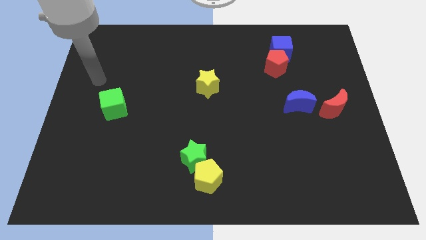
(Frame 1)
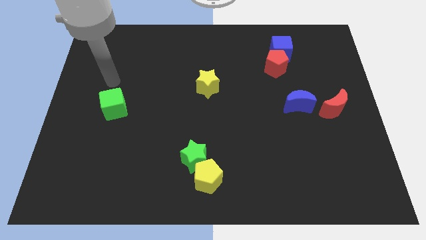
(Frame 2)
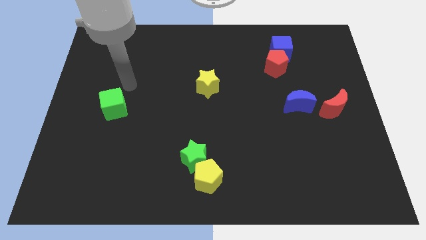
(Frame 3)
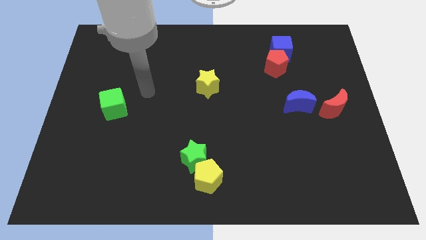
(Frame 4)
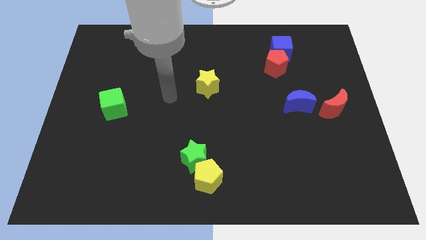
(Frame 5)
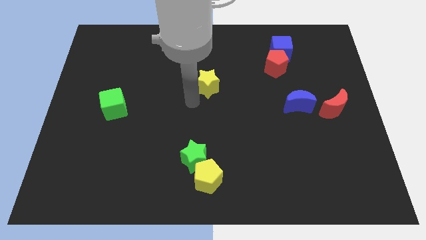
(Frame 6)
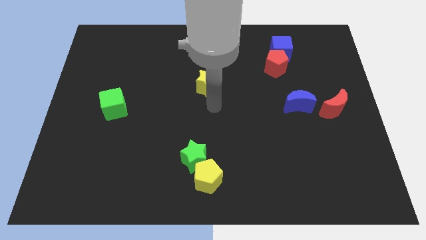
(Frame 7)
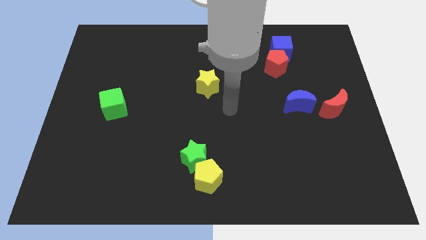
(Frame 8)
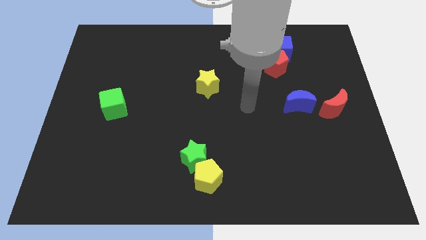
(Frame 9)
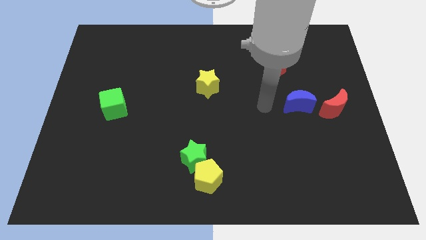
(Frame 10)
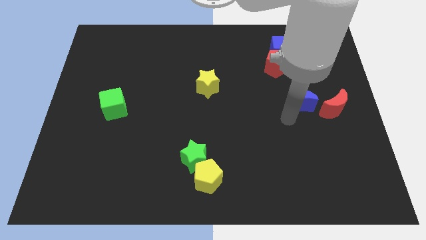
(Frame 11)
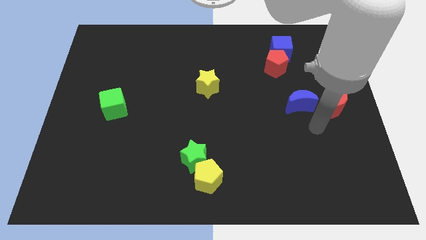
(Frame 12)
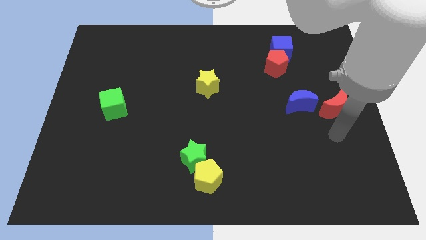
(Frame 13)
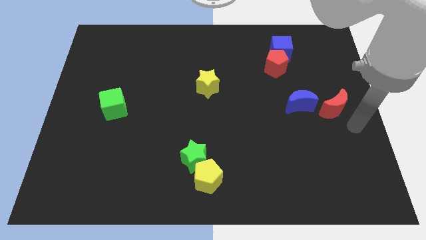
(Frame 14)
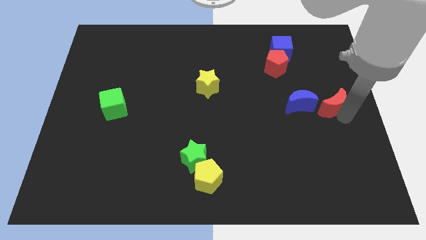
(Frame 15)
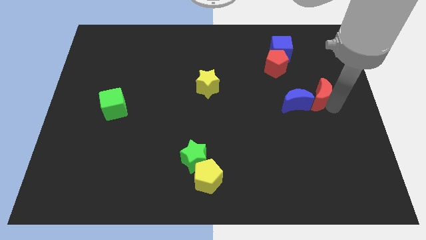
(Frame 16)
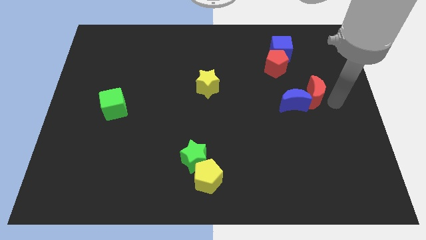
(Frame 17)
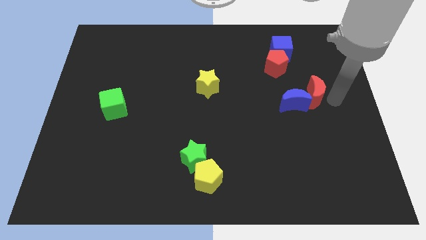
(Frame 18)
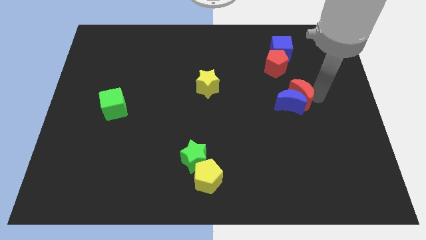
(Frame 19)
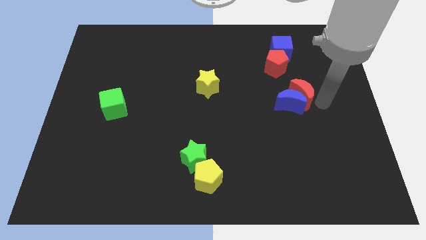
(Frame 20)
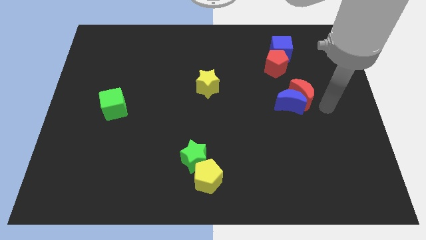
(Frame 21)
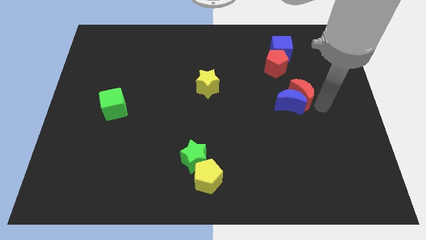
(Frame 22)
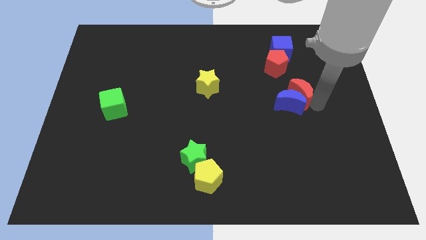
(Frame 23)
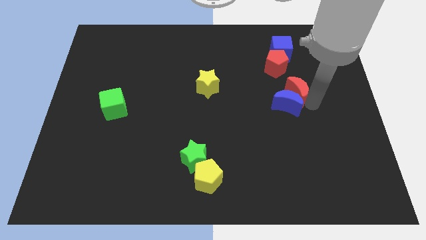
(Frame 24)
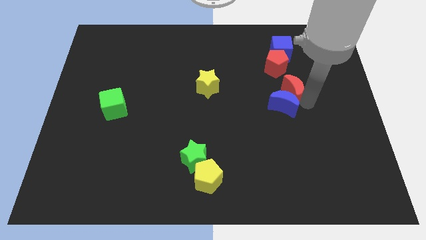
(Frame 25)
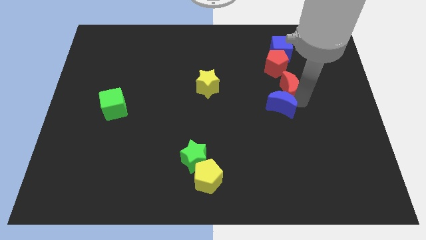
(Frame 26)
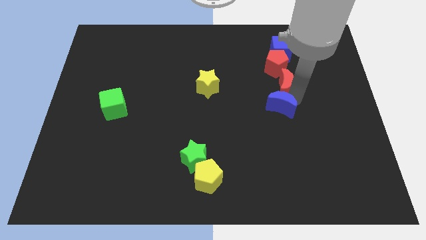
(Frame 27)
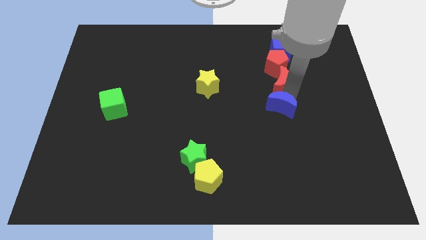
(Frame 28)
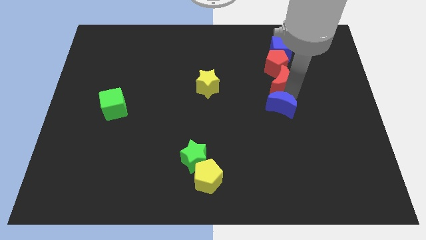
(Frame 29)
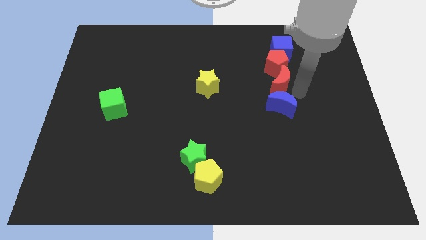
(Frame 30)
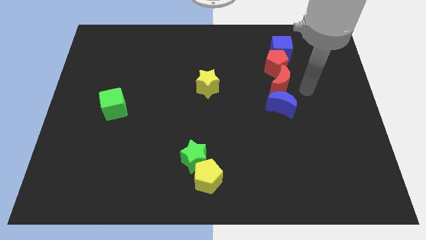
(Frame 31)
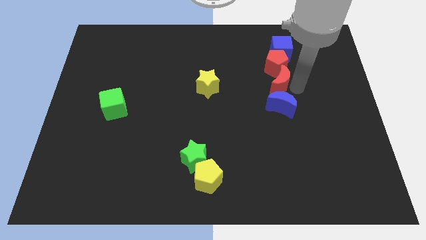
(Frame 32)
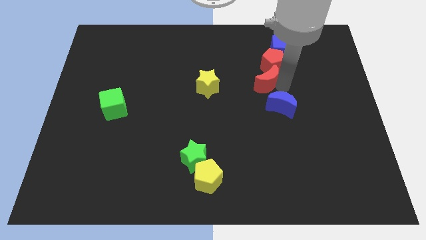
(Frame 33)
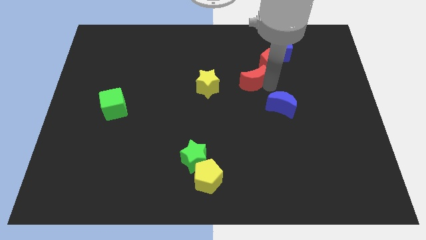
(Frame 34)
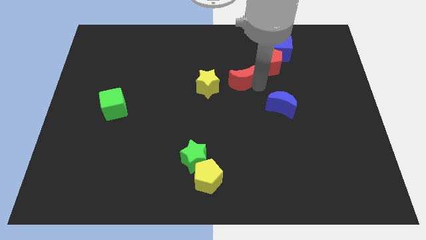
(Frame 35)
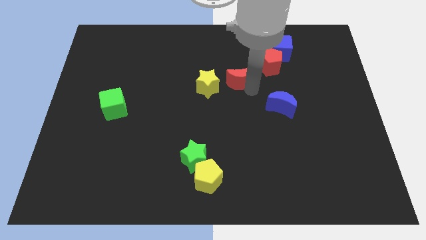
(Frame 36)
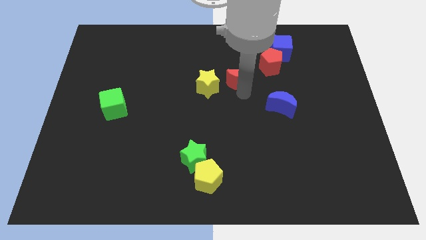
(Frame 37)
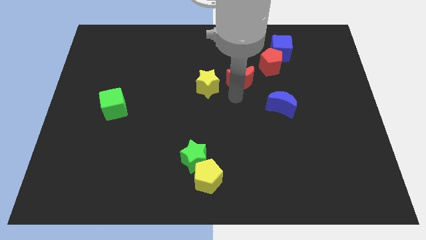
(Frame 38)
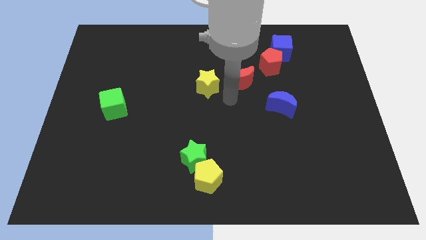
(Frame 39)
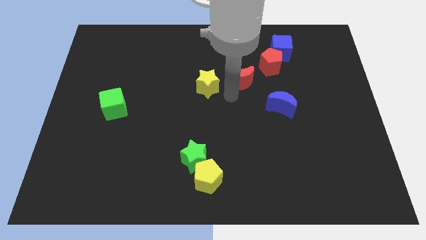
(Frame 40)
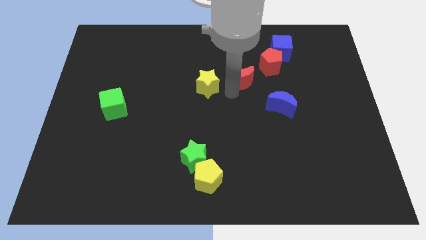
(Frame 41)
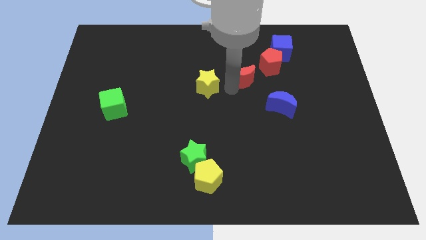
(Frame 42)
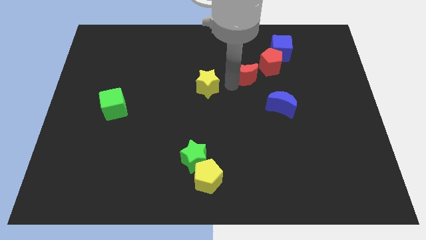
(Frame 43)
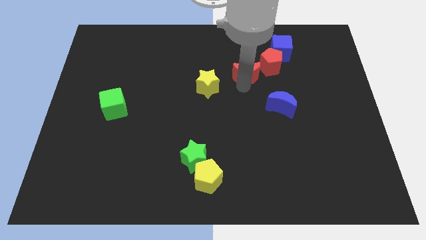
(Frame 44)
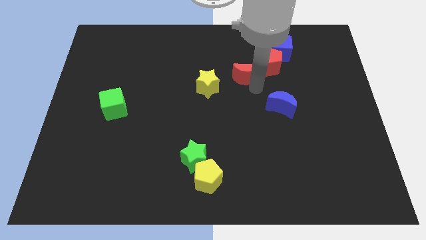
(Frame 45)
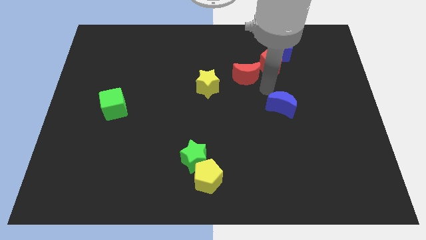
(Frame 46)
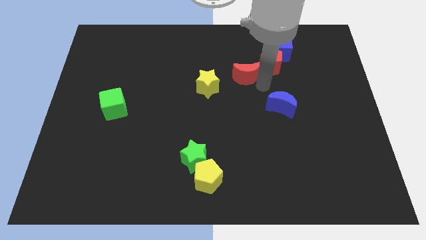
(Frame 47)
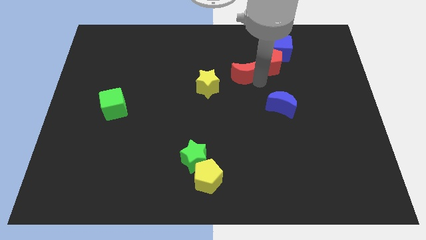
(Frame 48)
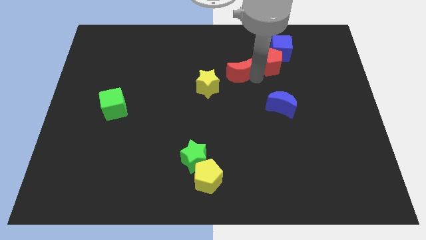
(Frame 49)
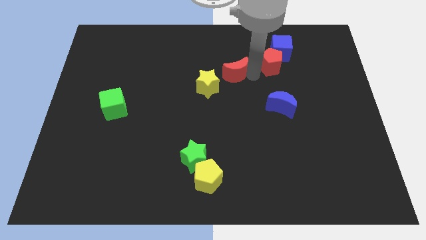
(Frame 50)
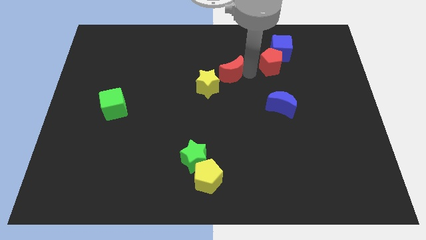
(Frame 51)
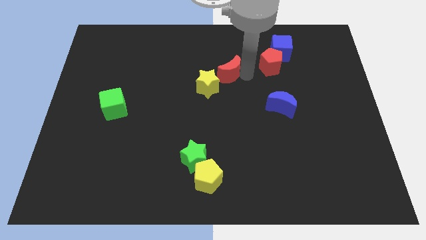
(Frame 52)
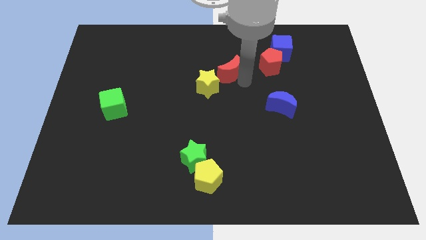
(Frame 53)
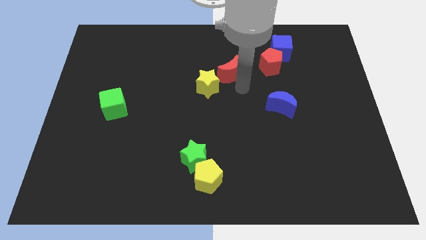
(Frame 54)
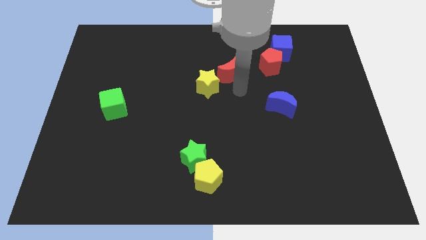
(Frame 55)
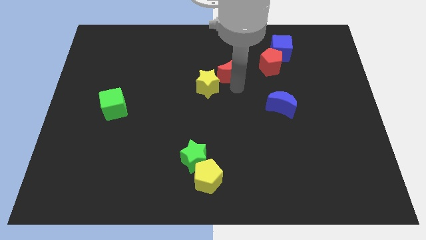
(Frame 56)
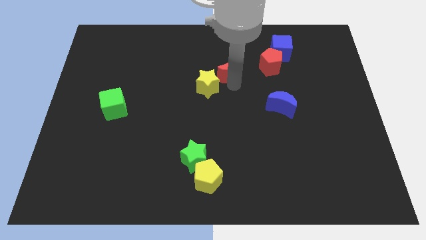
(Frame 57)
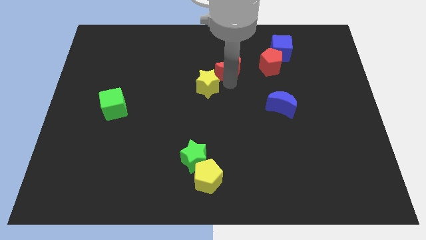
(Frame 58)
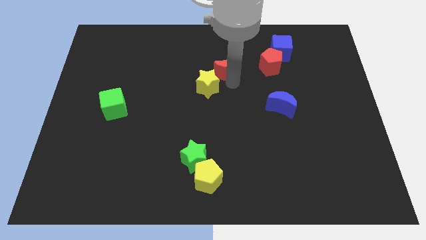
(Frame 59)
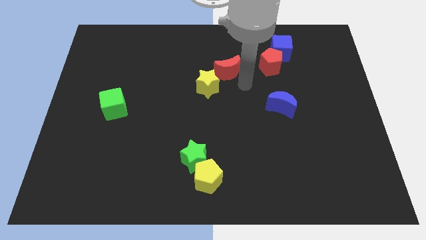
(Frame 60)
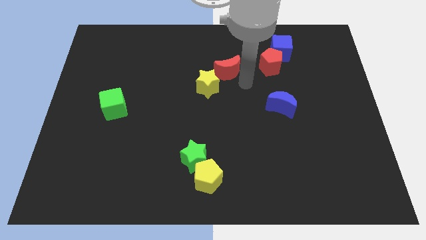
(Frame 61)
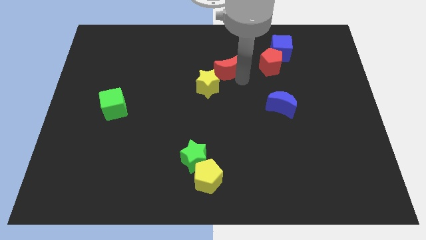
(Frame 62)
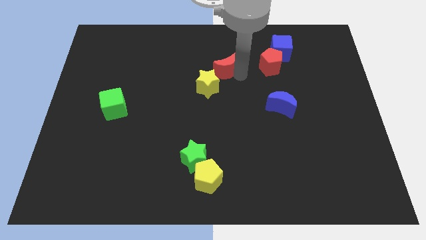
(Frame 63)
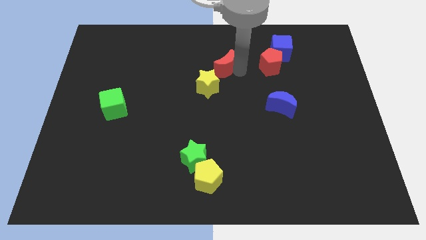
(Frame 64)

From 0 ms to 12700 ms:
slide the red moon above the yellow star

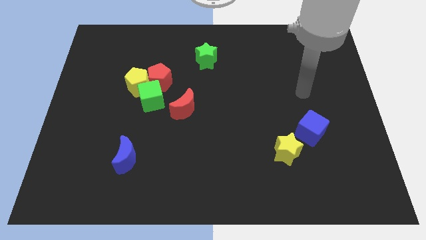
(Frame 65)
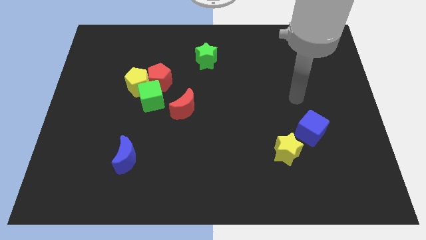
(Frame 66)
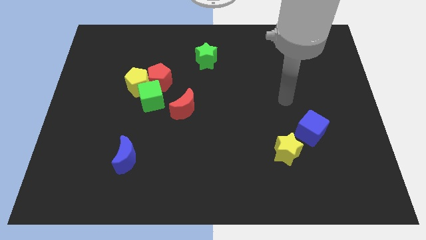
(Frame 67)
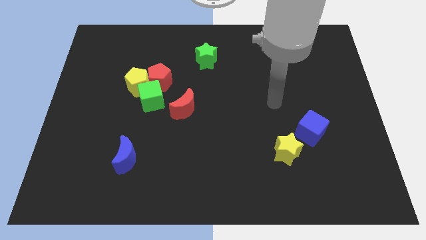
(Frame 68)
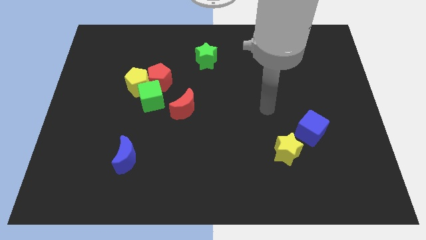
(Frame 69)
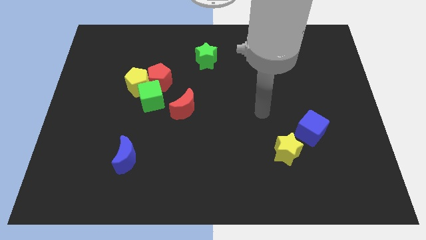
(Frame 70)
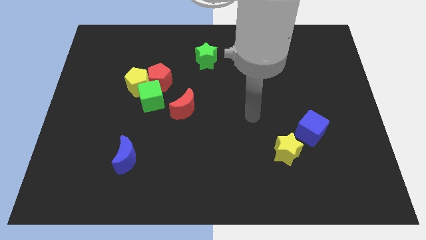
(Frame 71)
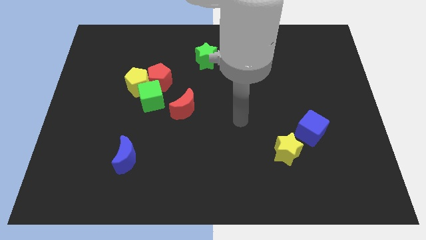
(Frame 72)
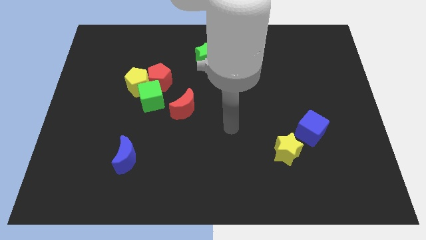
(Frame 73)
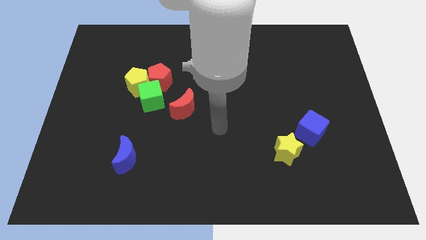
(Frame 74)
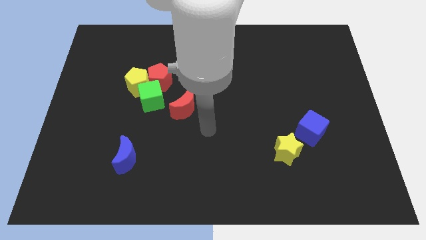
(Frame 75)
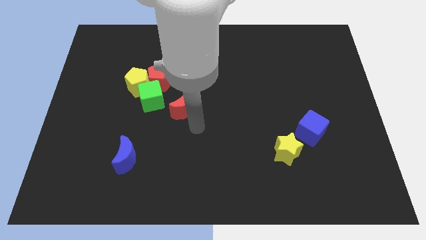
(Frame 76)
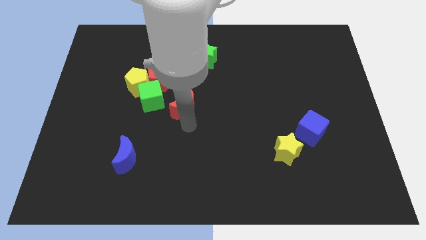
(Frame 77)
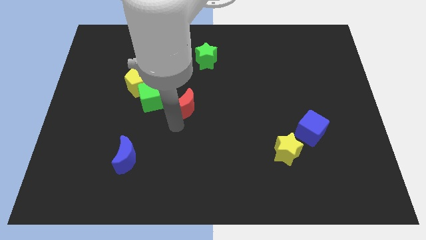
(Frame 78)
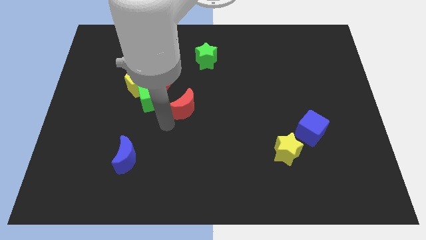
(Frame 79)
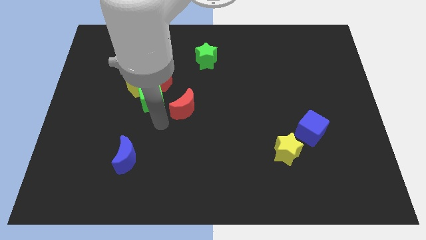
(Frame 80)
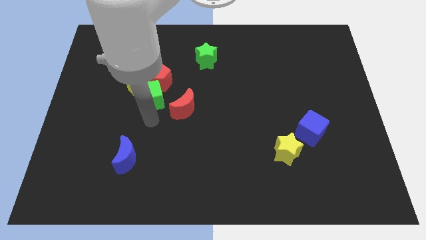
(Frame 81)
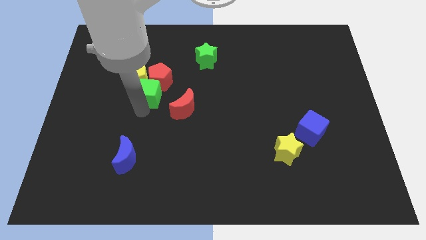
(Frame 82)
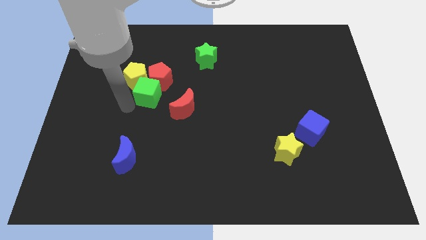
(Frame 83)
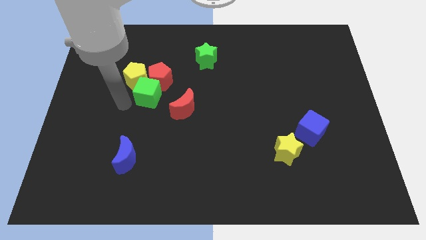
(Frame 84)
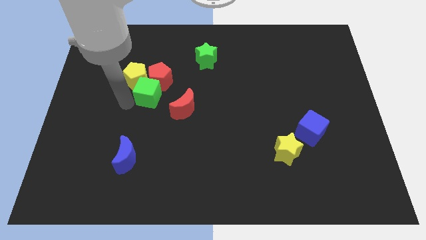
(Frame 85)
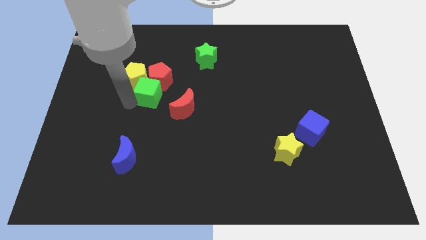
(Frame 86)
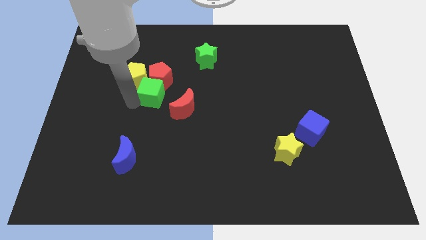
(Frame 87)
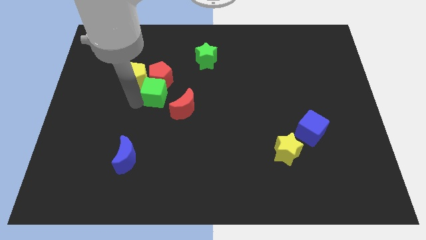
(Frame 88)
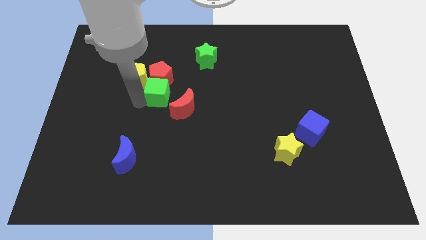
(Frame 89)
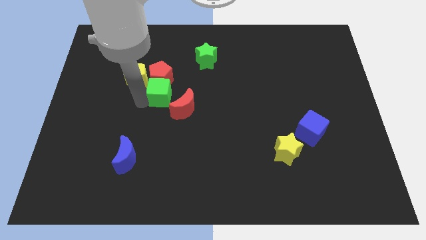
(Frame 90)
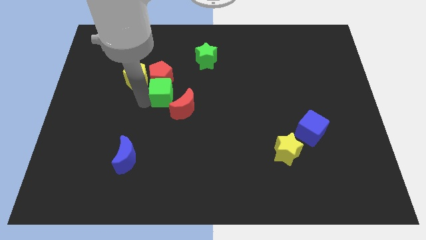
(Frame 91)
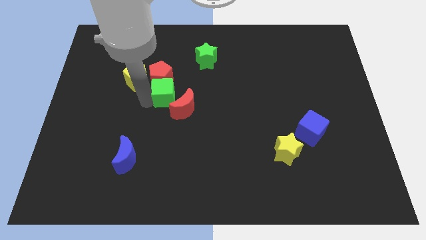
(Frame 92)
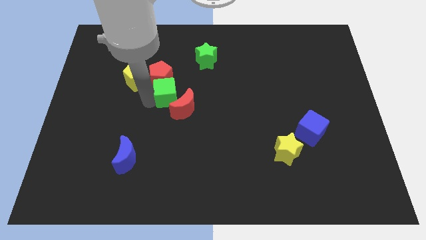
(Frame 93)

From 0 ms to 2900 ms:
move the green cube to the top of the red moon
